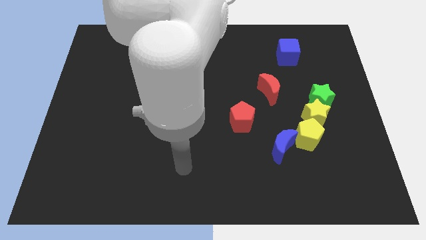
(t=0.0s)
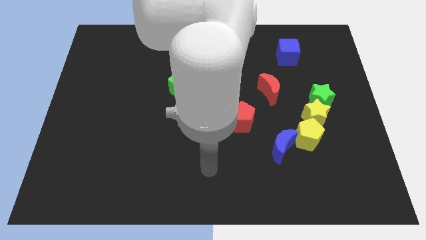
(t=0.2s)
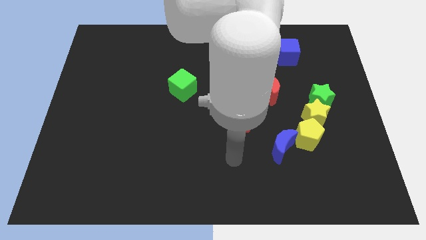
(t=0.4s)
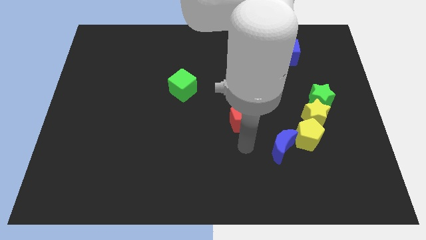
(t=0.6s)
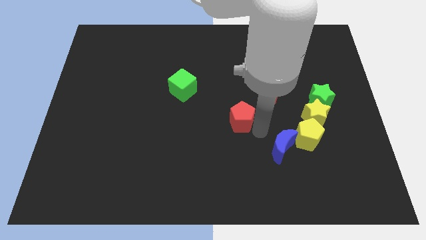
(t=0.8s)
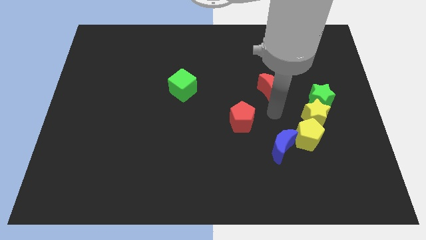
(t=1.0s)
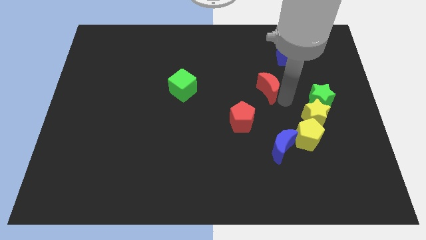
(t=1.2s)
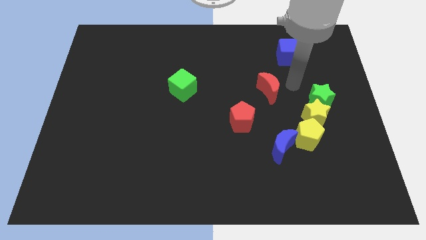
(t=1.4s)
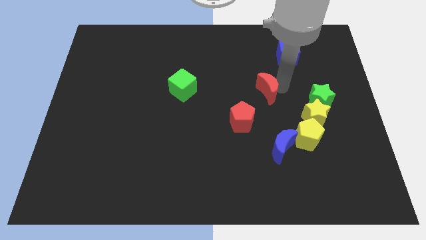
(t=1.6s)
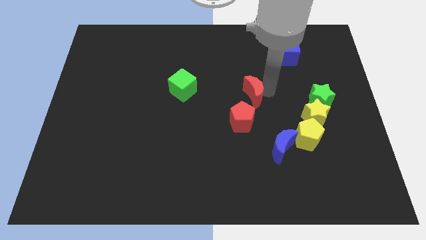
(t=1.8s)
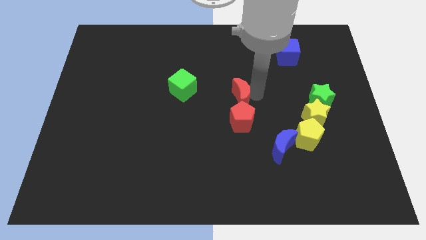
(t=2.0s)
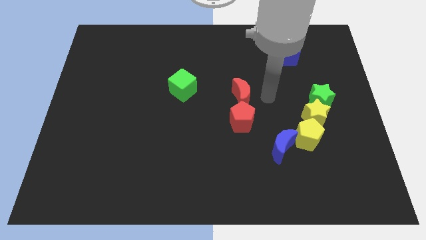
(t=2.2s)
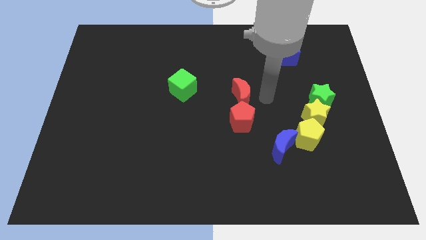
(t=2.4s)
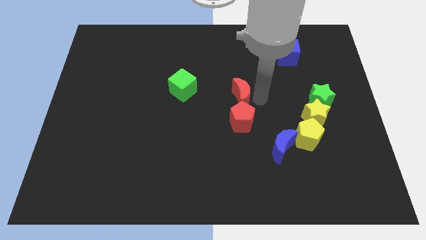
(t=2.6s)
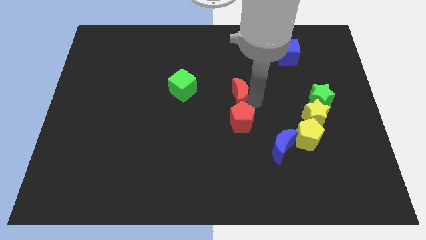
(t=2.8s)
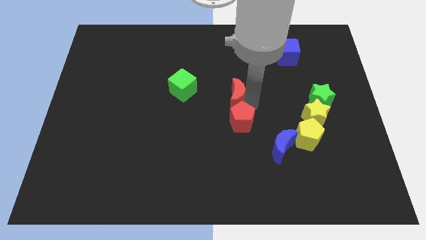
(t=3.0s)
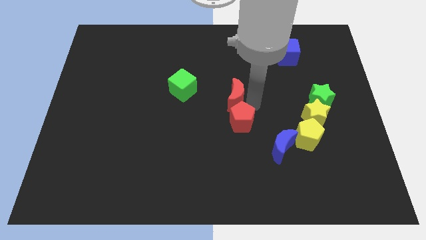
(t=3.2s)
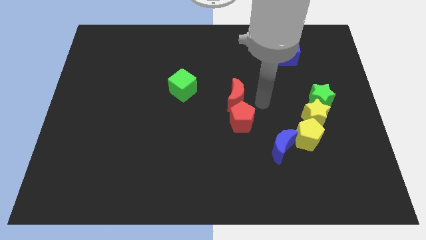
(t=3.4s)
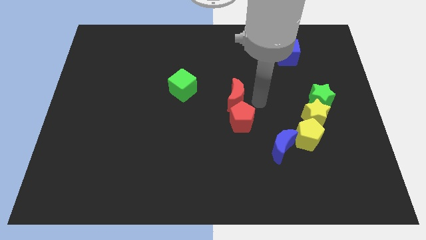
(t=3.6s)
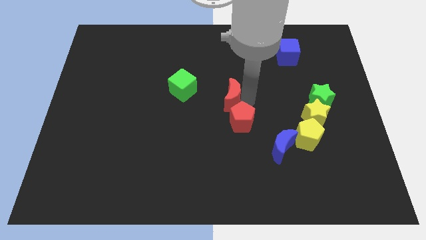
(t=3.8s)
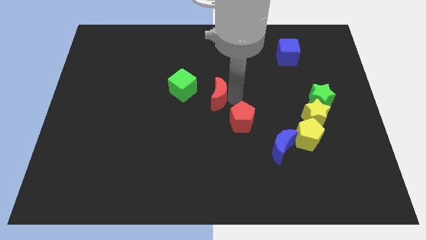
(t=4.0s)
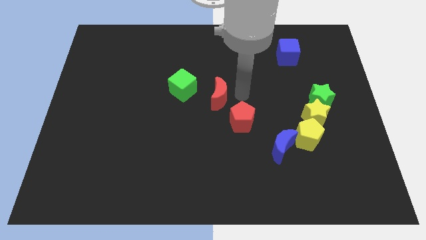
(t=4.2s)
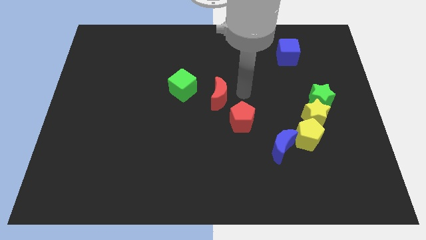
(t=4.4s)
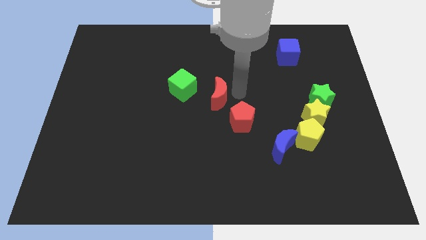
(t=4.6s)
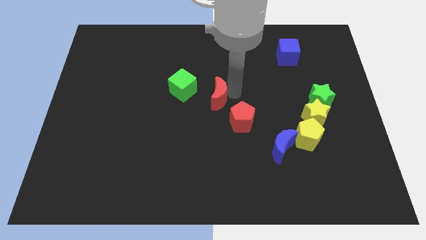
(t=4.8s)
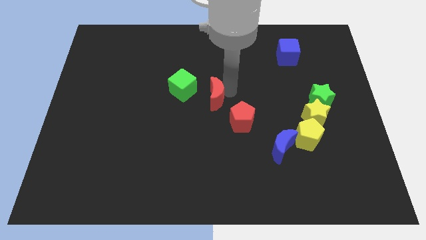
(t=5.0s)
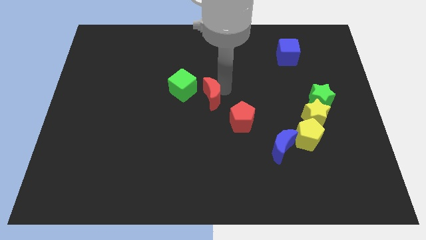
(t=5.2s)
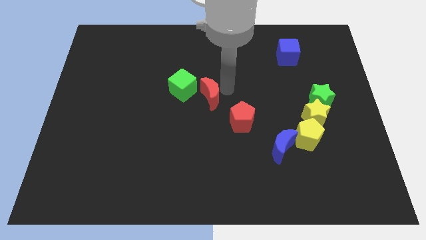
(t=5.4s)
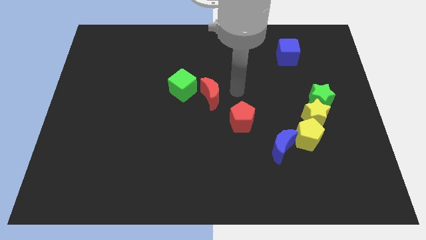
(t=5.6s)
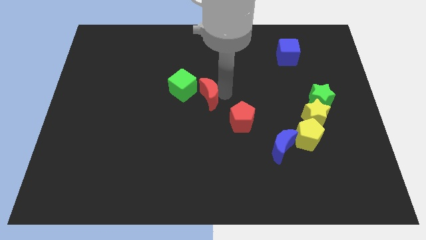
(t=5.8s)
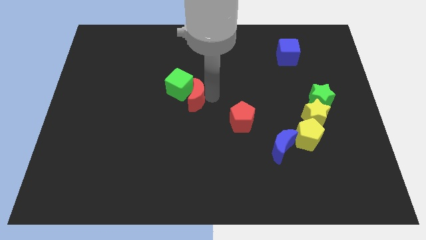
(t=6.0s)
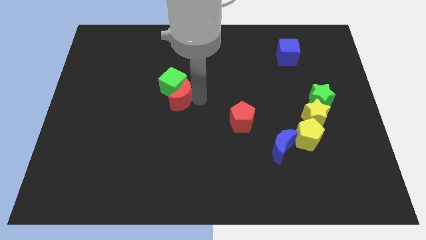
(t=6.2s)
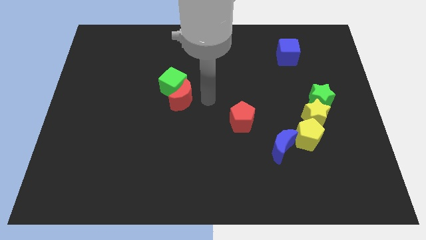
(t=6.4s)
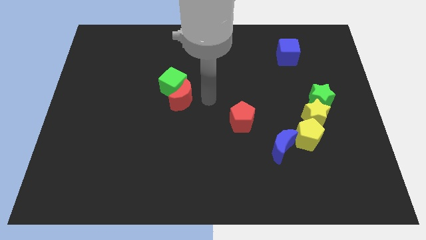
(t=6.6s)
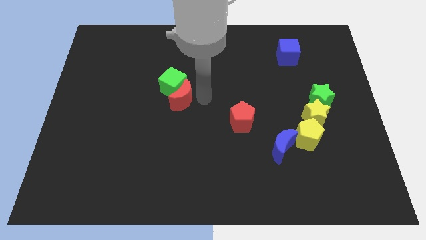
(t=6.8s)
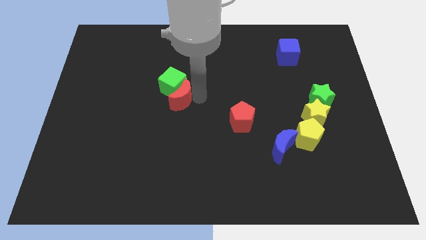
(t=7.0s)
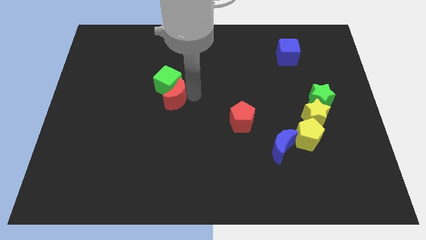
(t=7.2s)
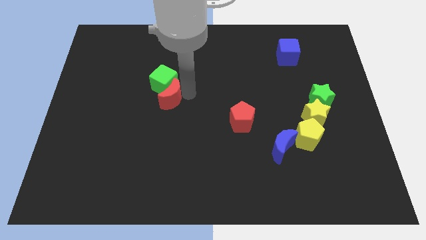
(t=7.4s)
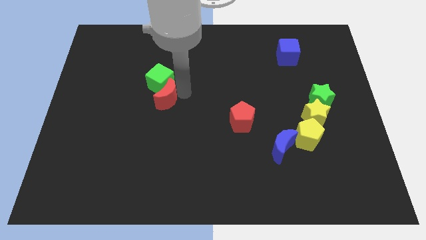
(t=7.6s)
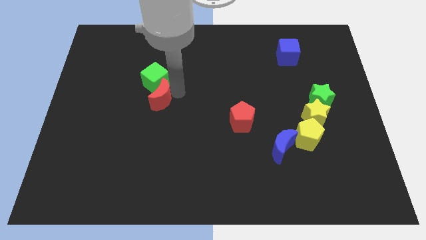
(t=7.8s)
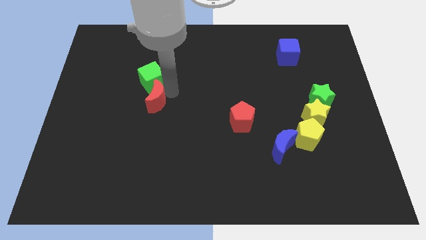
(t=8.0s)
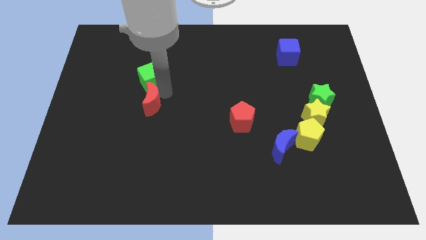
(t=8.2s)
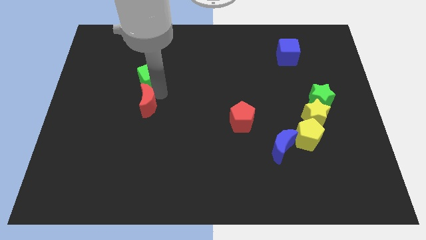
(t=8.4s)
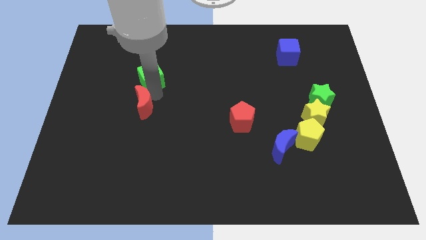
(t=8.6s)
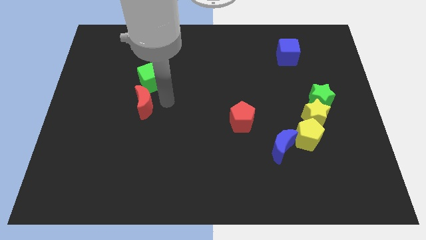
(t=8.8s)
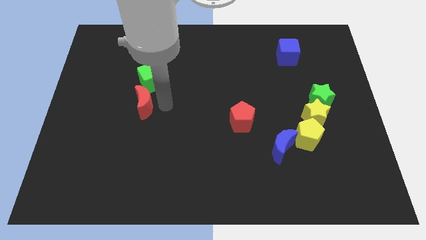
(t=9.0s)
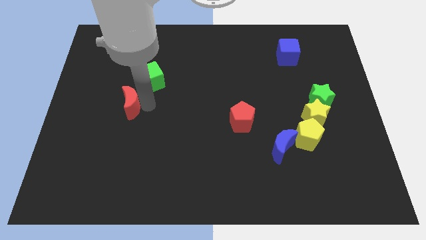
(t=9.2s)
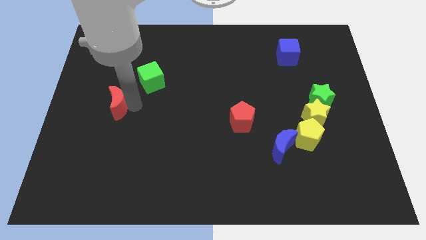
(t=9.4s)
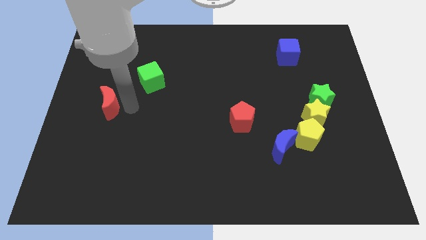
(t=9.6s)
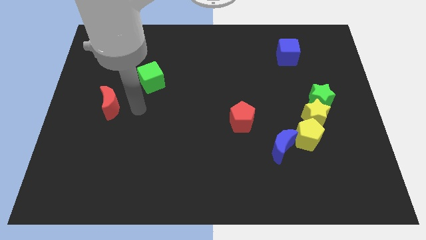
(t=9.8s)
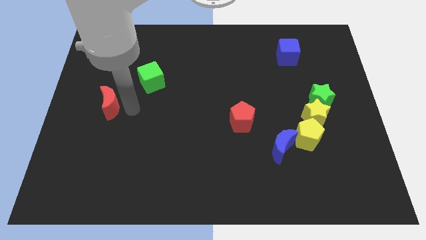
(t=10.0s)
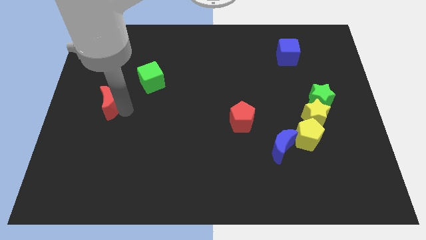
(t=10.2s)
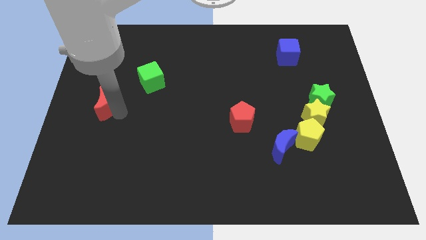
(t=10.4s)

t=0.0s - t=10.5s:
put the red moon to the center left

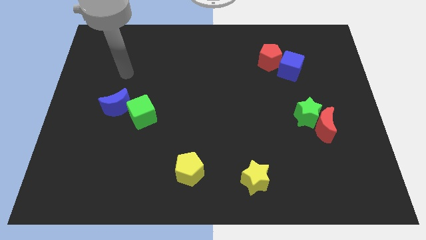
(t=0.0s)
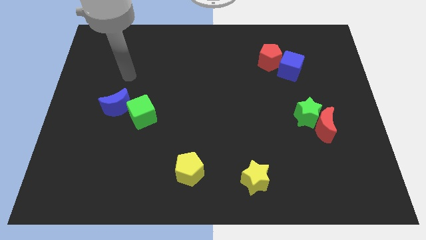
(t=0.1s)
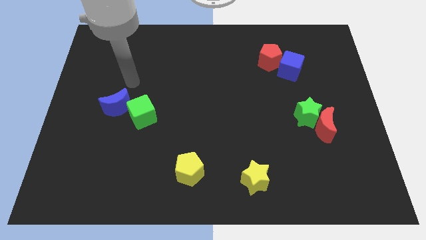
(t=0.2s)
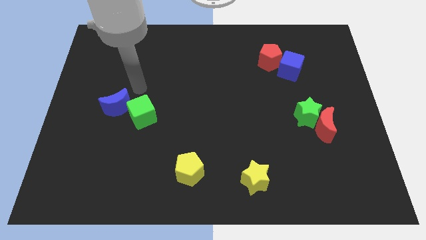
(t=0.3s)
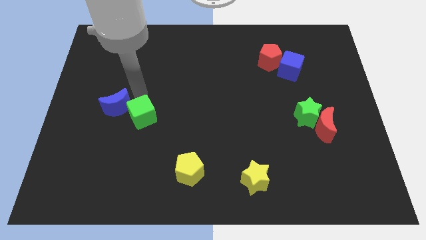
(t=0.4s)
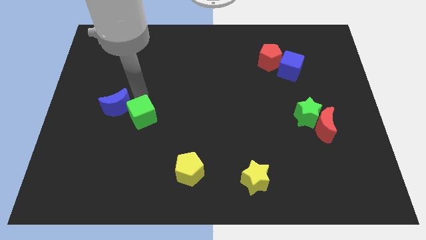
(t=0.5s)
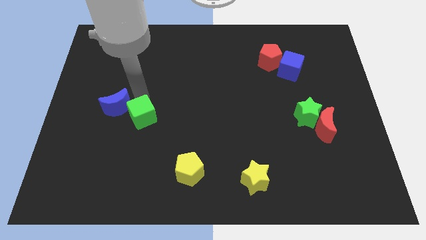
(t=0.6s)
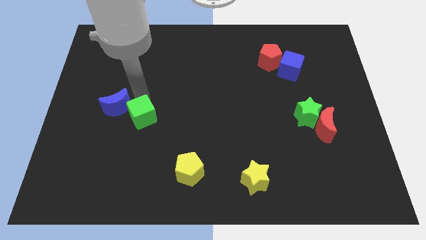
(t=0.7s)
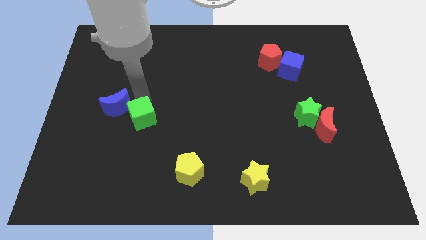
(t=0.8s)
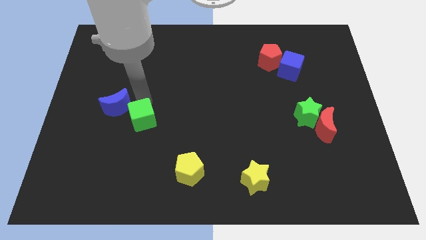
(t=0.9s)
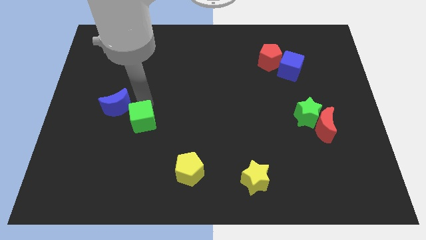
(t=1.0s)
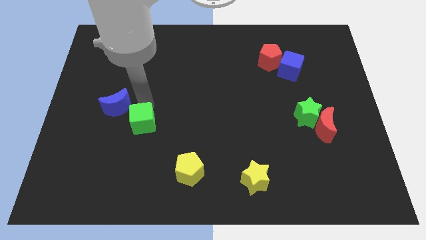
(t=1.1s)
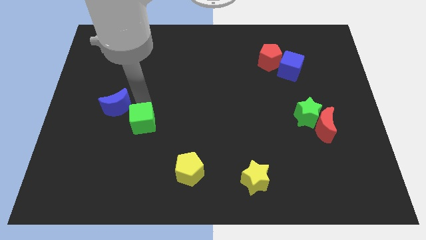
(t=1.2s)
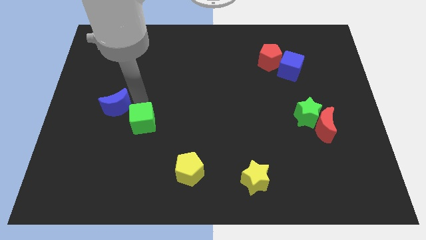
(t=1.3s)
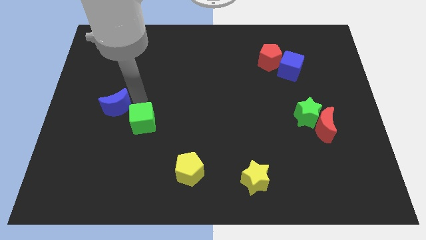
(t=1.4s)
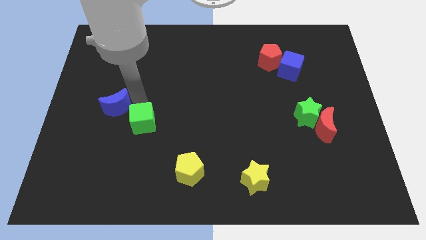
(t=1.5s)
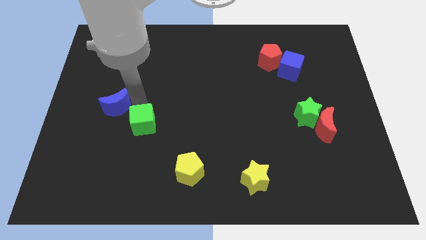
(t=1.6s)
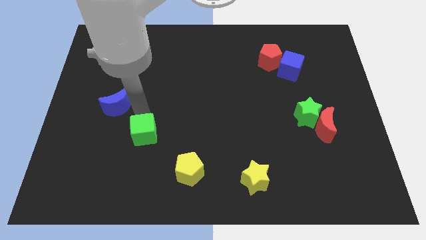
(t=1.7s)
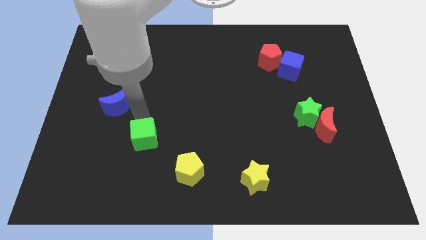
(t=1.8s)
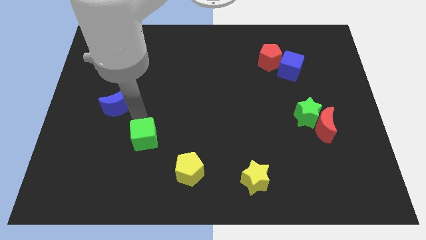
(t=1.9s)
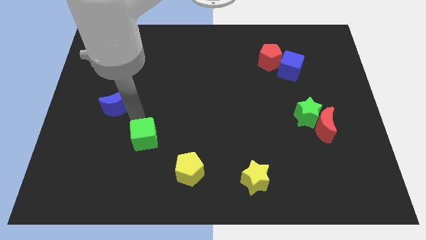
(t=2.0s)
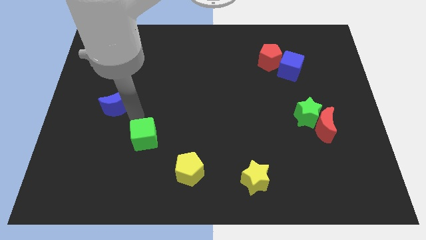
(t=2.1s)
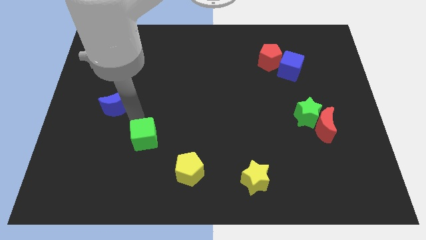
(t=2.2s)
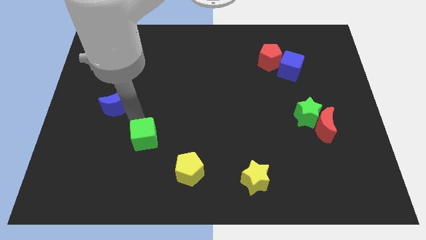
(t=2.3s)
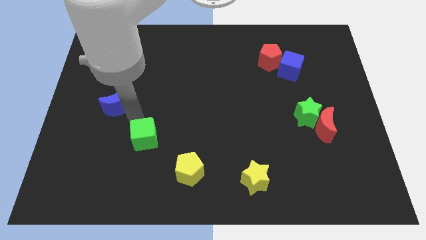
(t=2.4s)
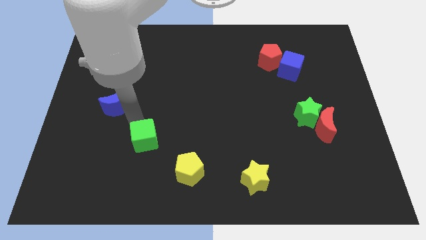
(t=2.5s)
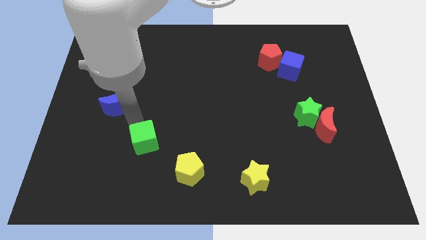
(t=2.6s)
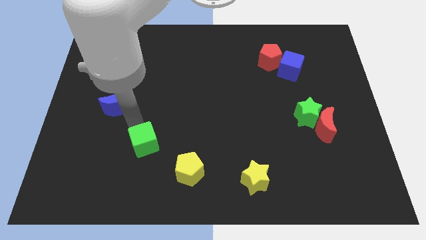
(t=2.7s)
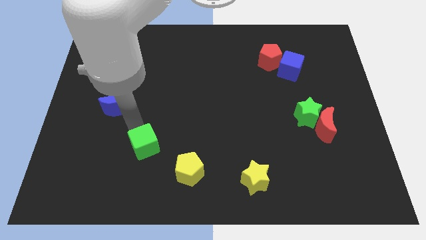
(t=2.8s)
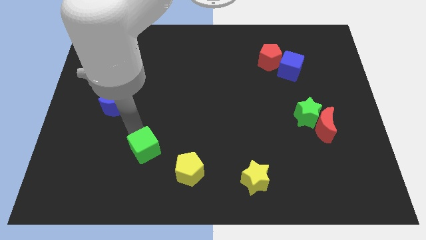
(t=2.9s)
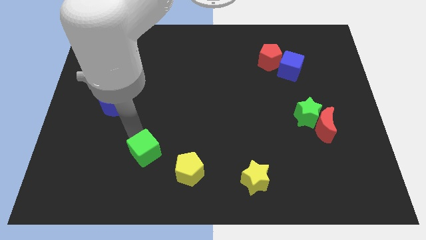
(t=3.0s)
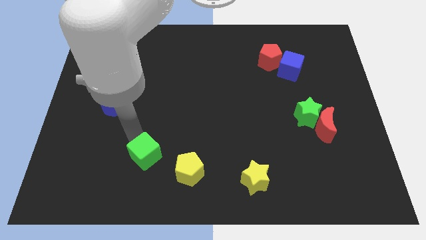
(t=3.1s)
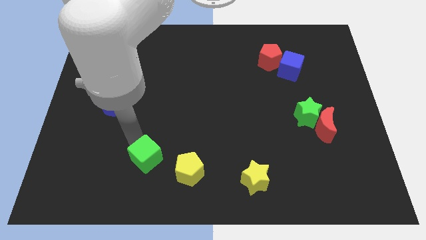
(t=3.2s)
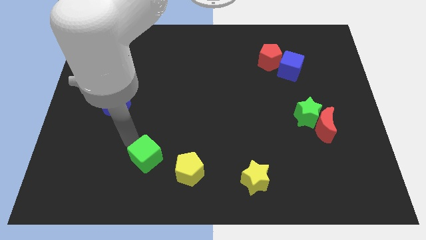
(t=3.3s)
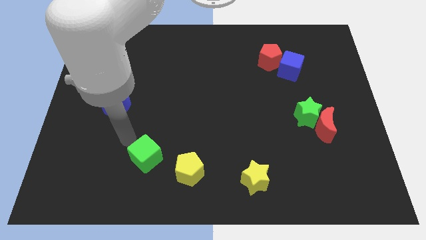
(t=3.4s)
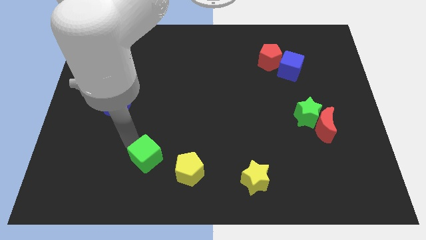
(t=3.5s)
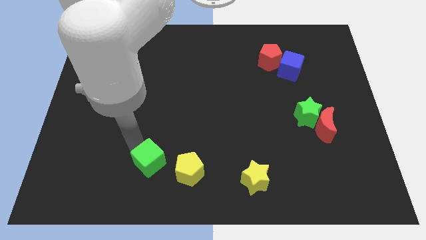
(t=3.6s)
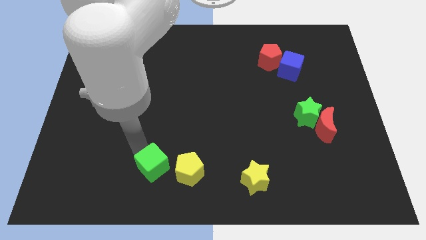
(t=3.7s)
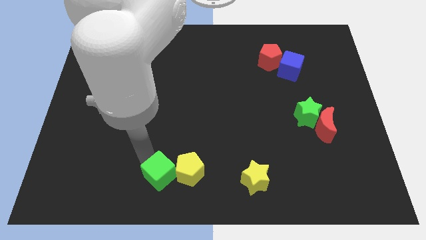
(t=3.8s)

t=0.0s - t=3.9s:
push the green cube to the bottom side
